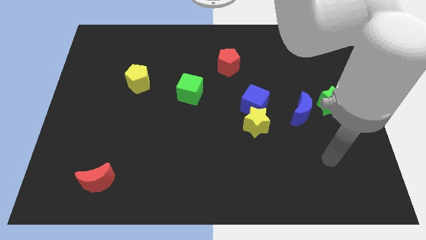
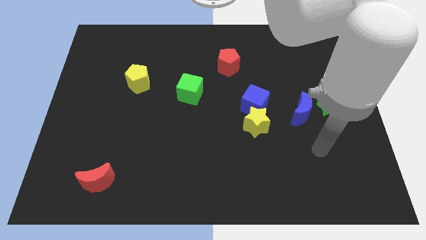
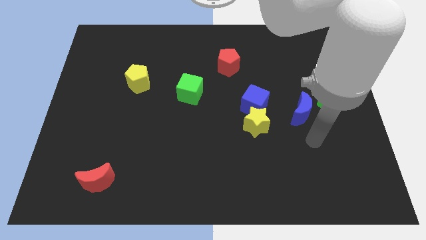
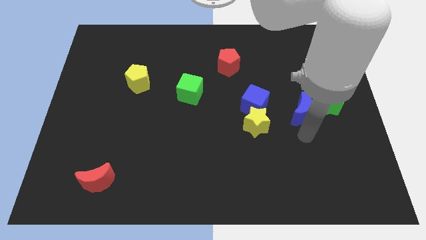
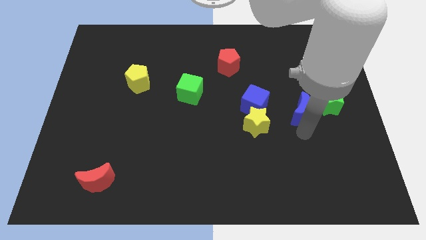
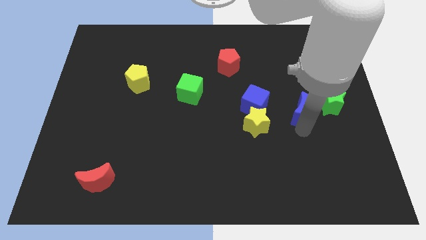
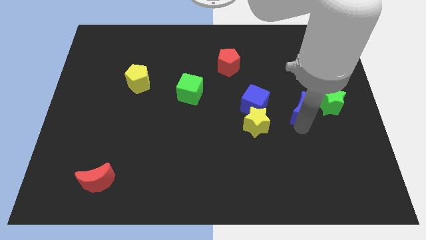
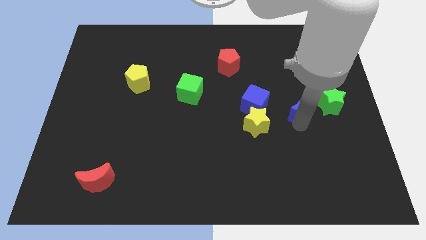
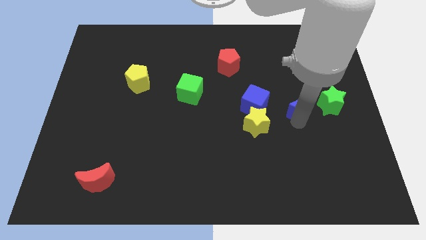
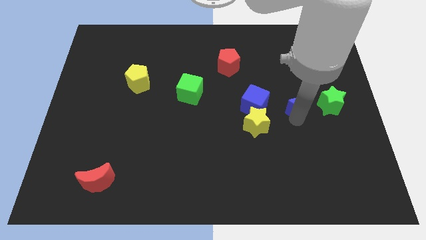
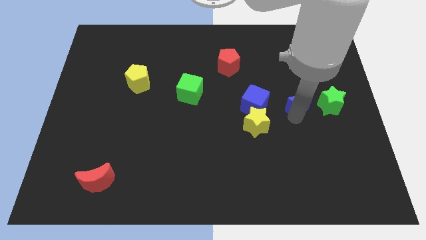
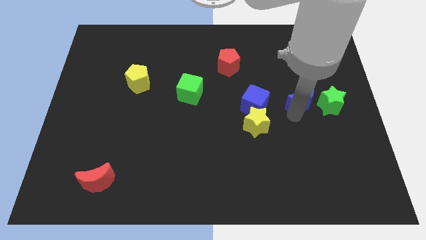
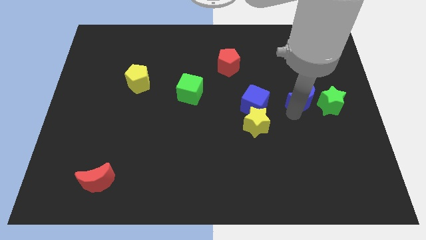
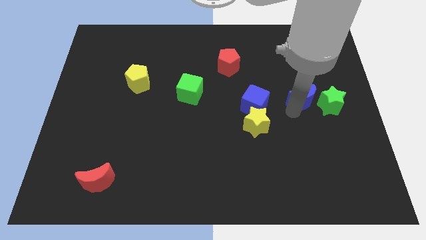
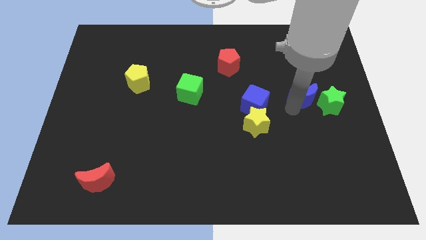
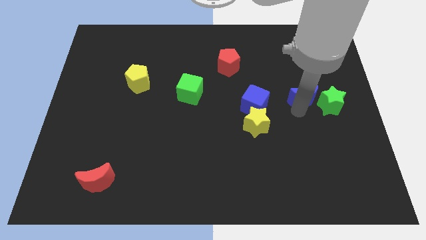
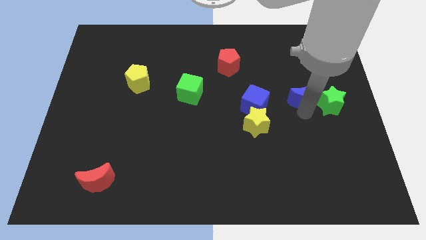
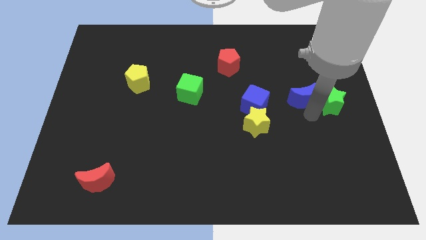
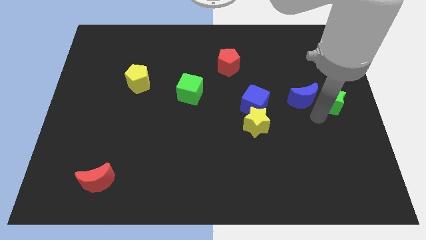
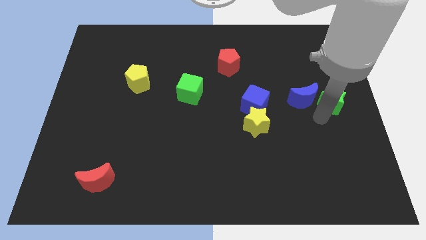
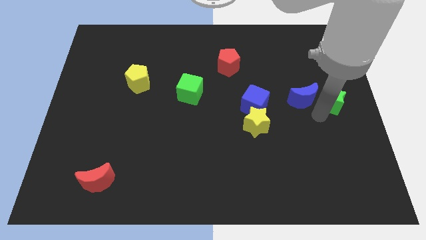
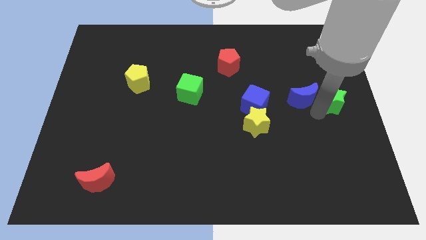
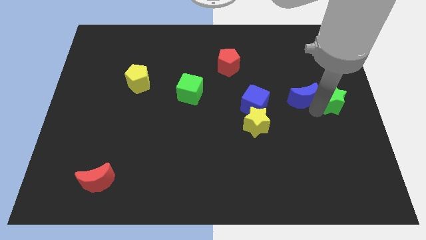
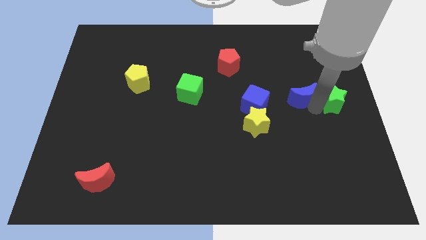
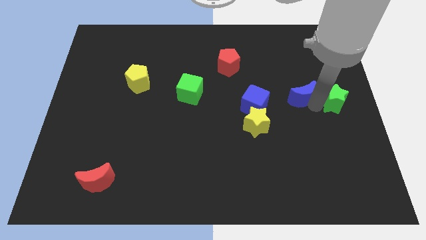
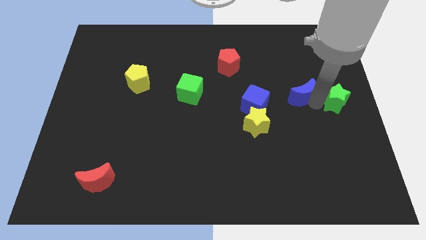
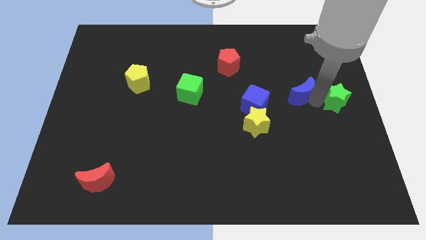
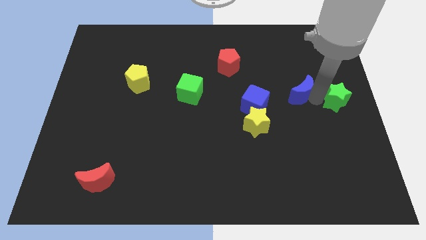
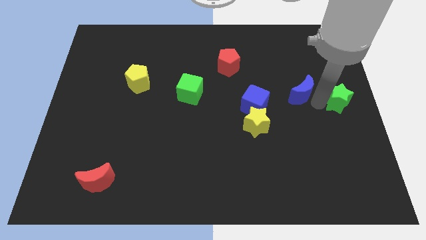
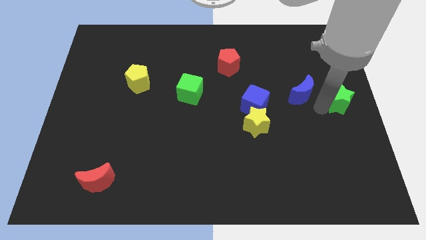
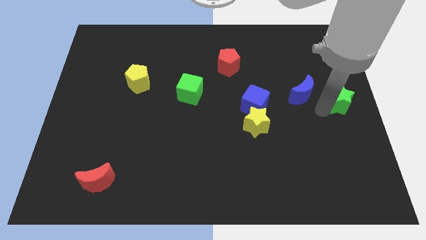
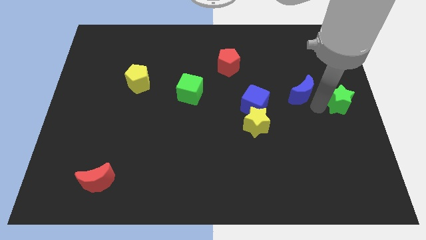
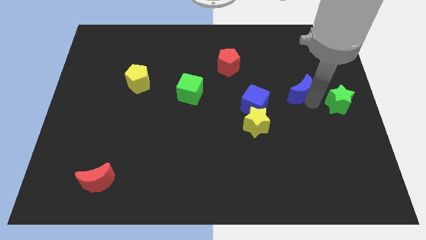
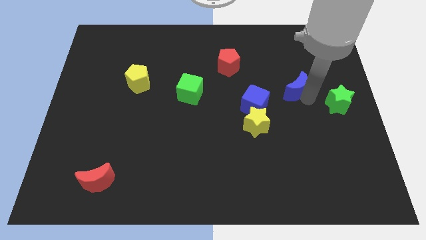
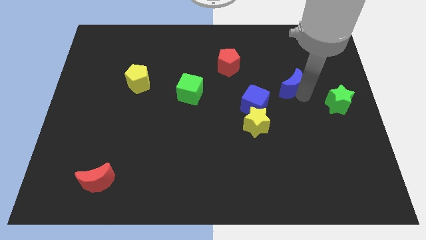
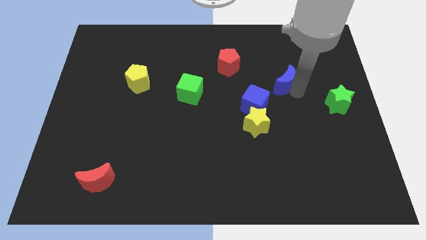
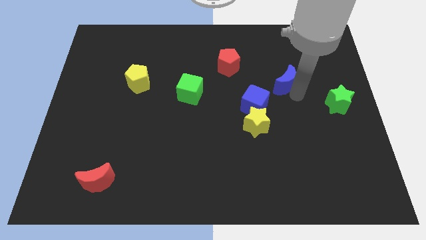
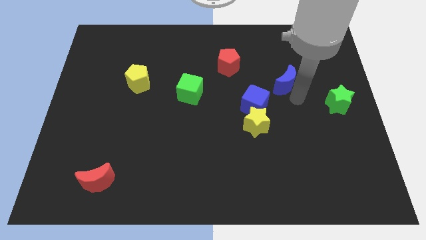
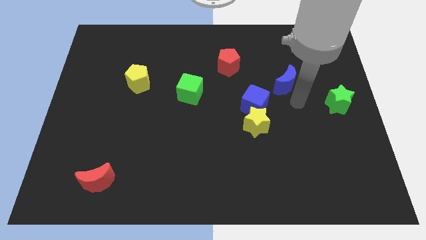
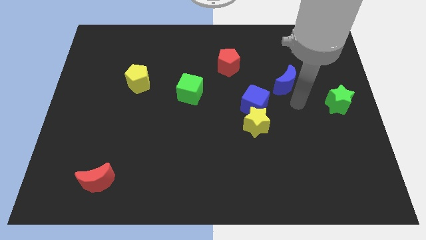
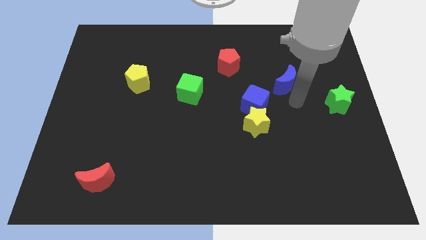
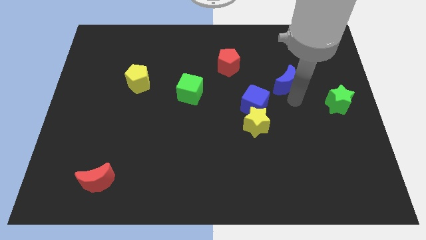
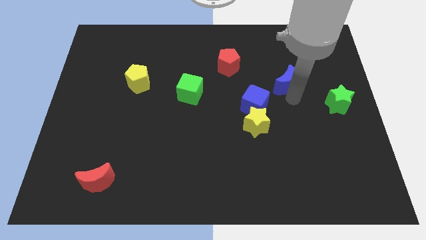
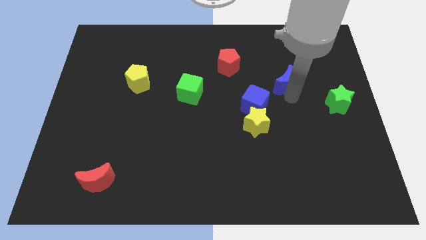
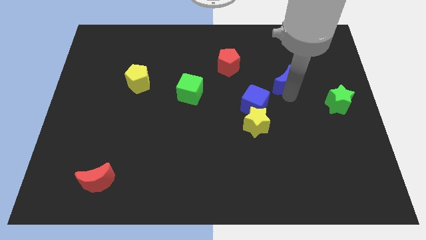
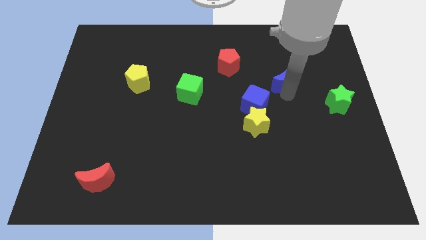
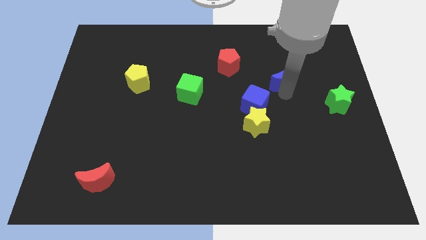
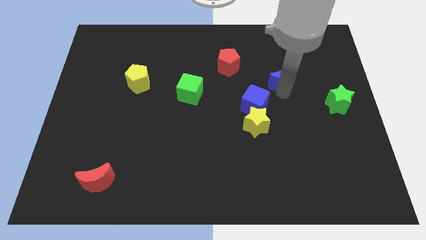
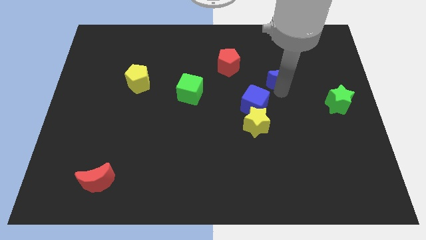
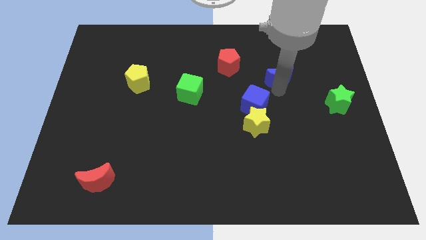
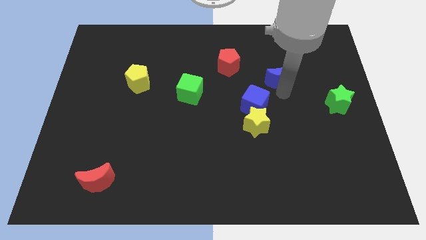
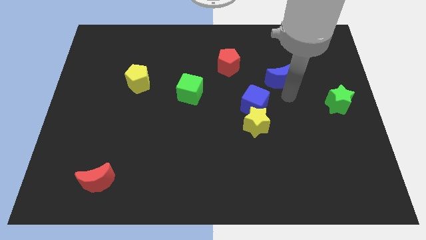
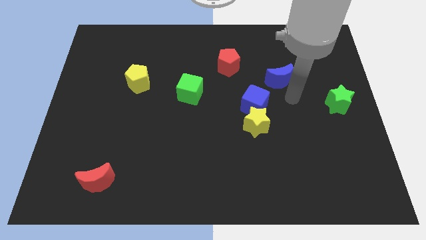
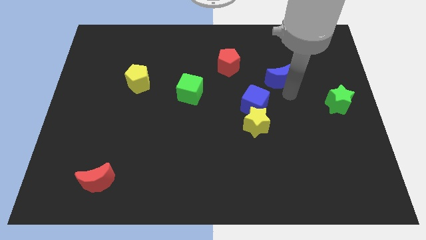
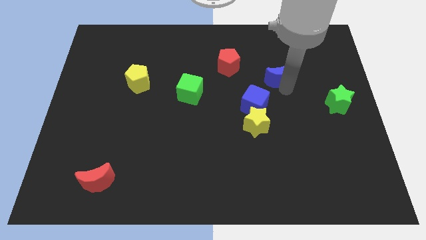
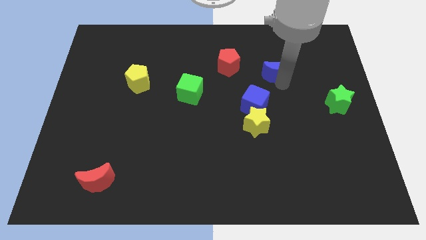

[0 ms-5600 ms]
slide the blue moon just right of the red pentagon
